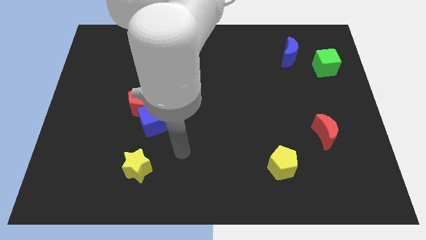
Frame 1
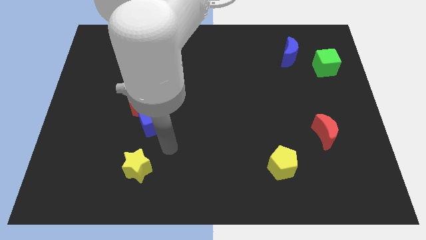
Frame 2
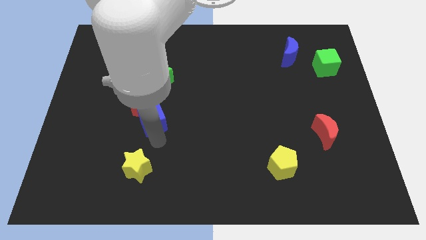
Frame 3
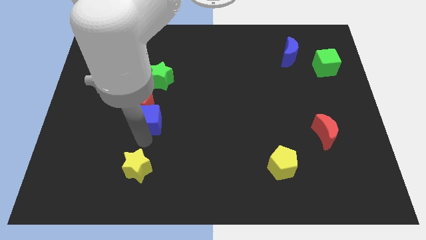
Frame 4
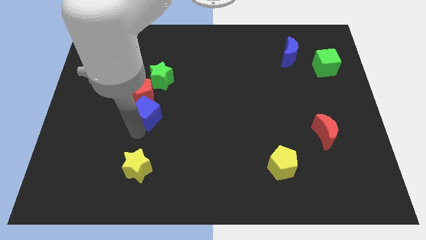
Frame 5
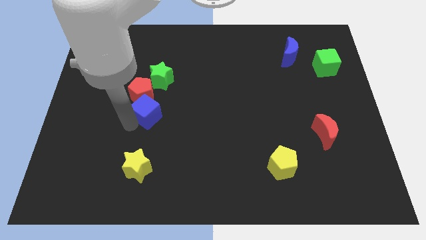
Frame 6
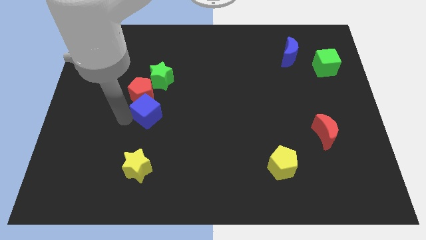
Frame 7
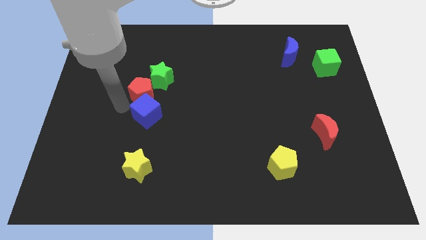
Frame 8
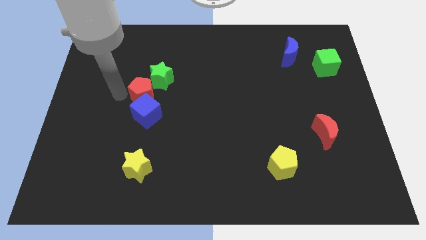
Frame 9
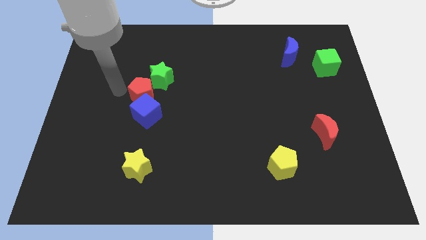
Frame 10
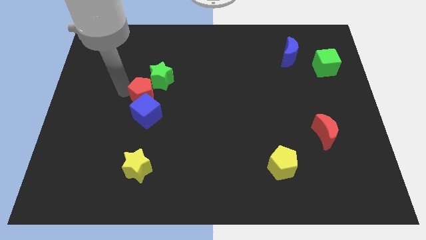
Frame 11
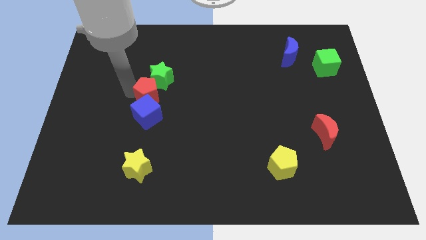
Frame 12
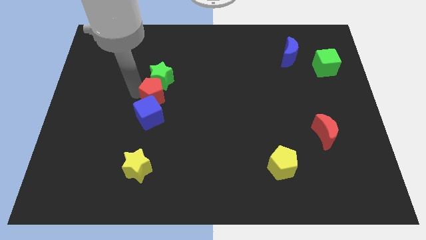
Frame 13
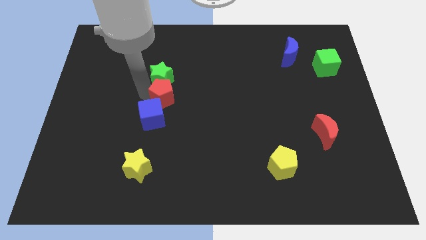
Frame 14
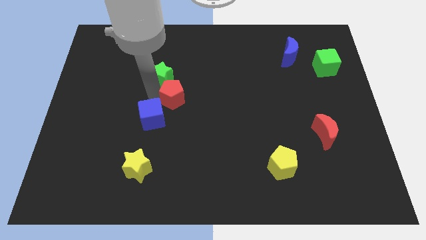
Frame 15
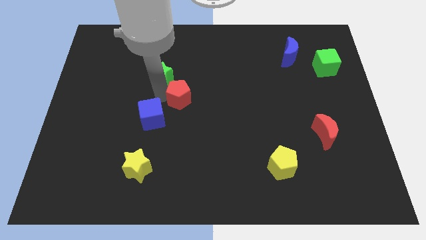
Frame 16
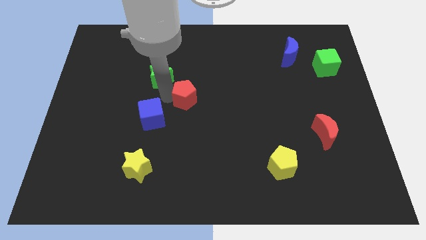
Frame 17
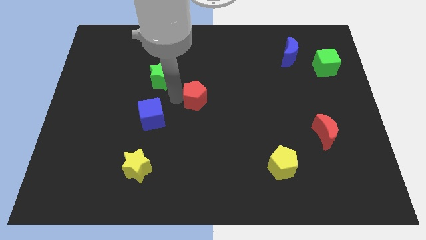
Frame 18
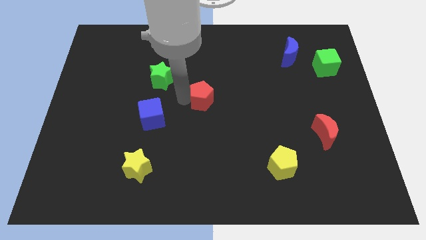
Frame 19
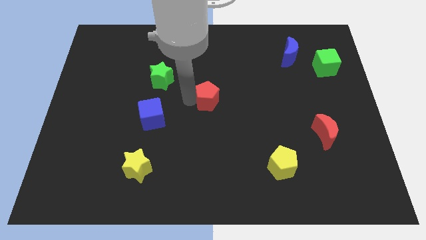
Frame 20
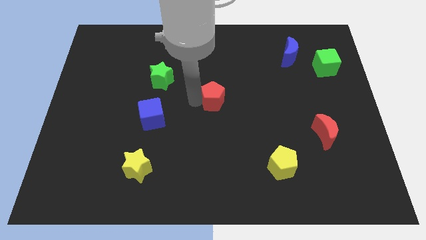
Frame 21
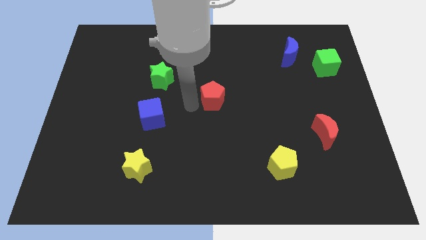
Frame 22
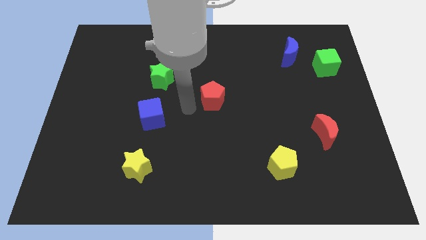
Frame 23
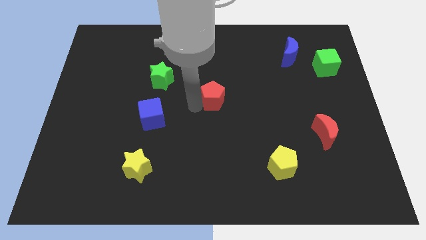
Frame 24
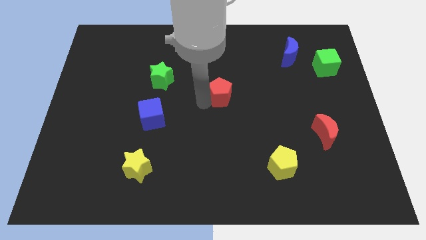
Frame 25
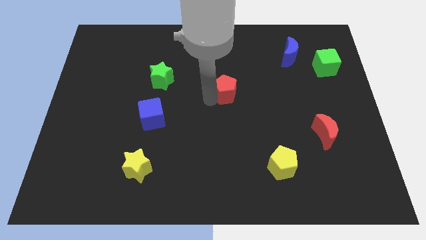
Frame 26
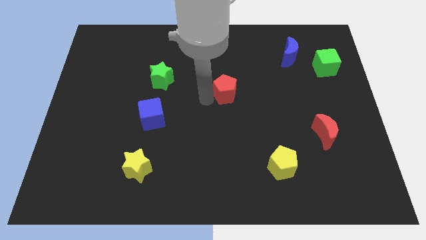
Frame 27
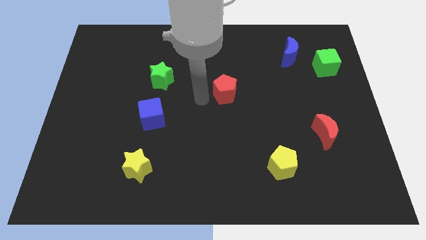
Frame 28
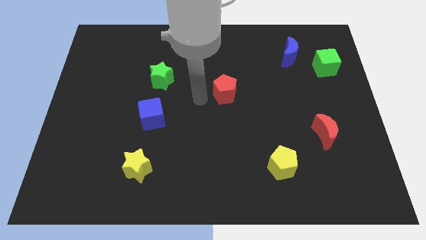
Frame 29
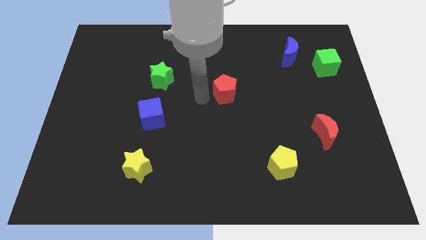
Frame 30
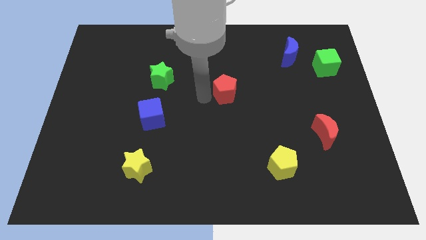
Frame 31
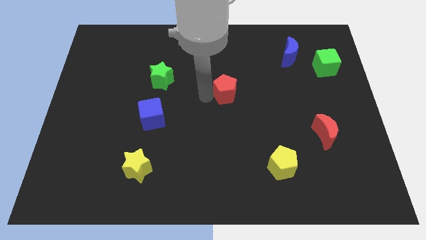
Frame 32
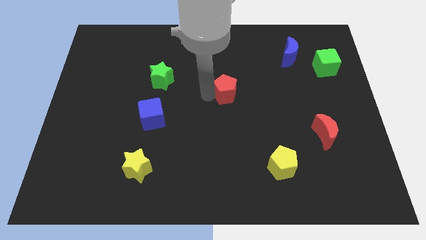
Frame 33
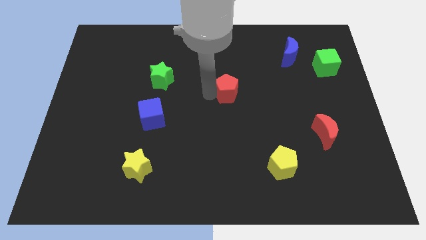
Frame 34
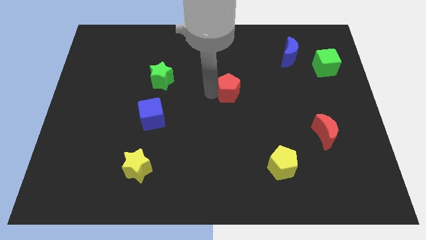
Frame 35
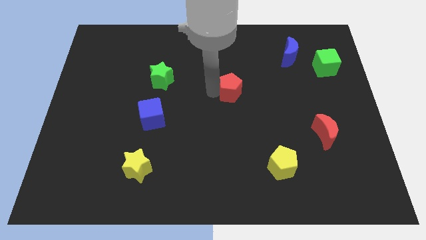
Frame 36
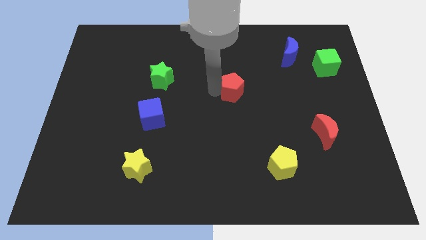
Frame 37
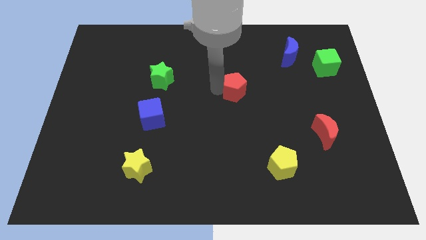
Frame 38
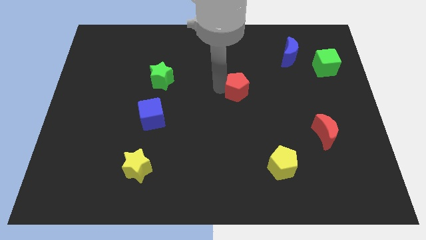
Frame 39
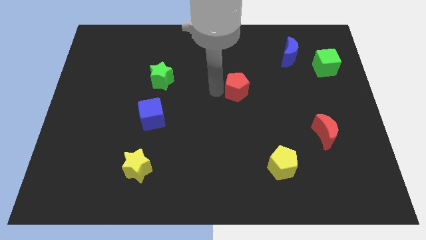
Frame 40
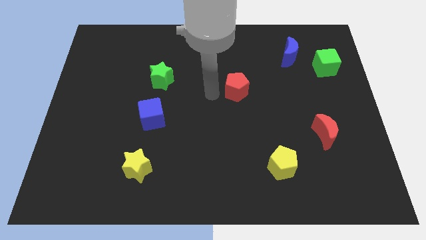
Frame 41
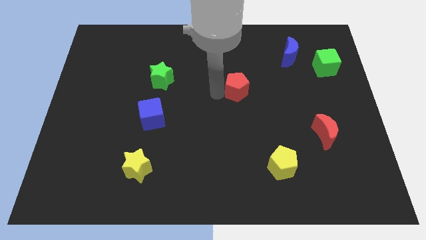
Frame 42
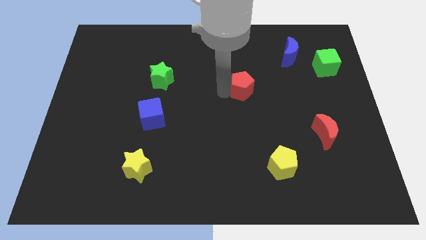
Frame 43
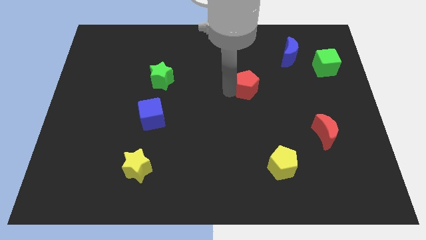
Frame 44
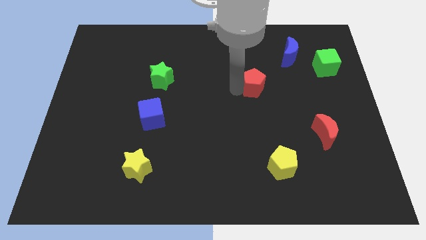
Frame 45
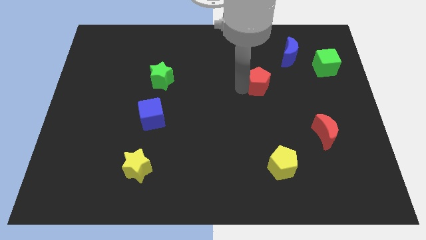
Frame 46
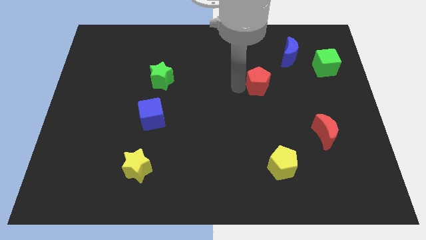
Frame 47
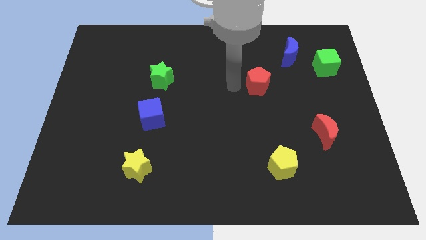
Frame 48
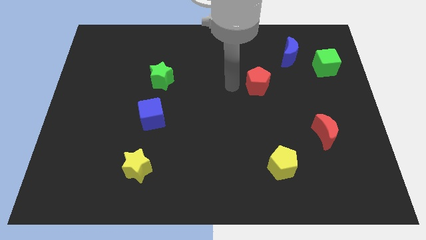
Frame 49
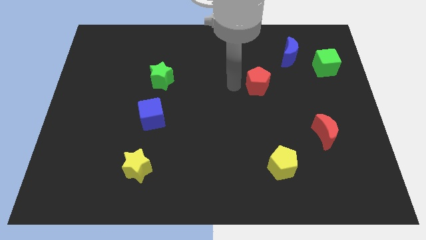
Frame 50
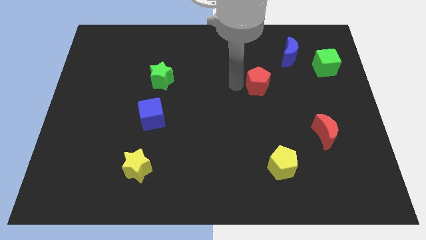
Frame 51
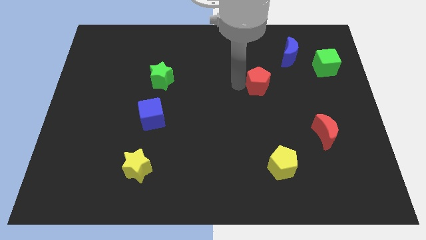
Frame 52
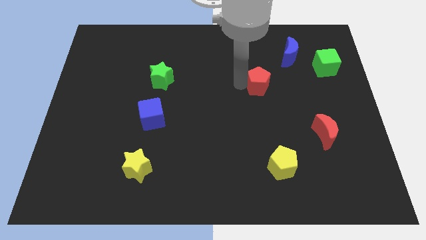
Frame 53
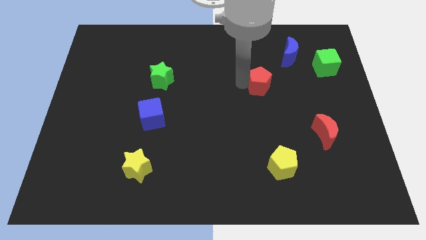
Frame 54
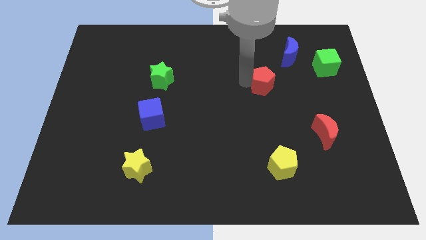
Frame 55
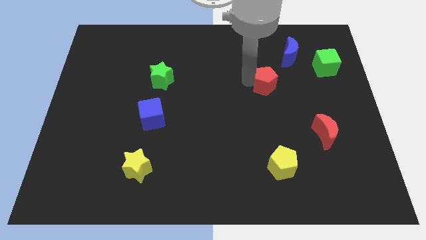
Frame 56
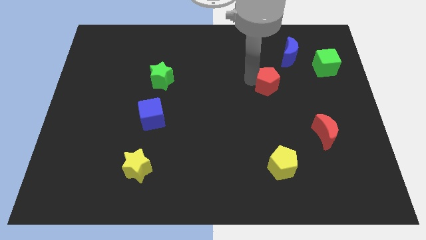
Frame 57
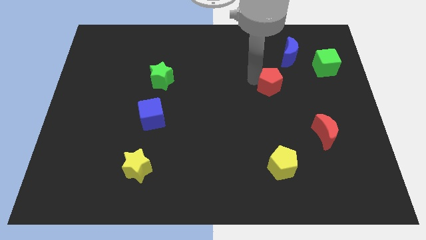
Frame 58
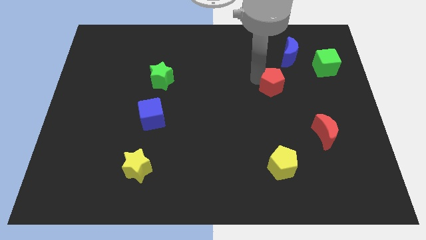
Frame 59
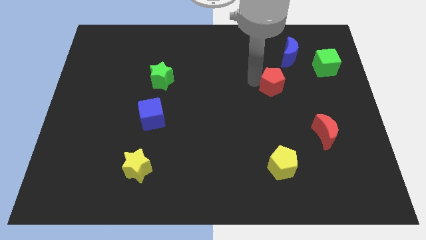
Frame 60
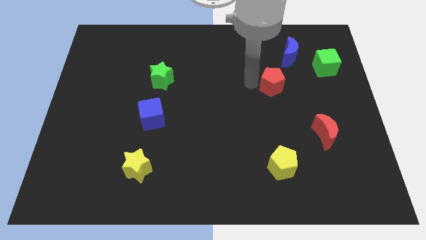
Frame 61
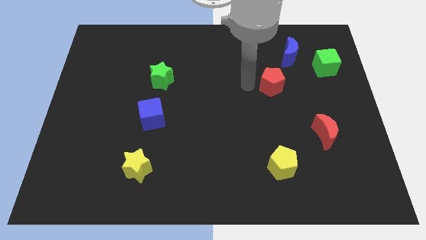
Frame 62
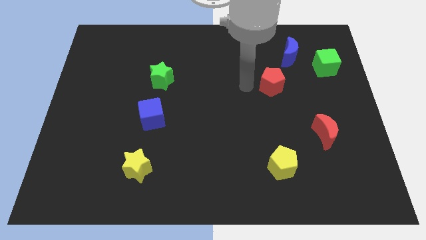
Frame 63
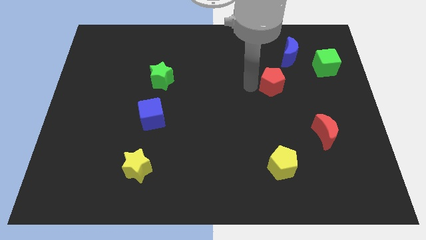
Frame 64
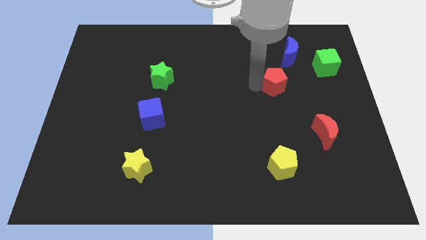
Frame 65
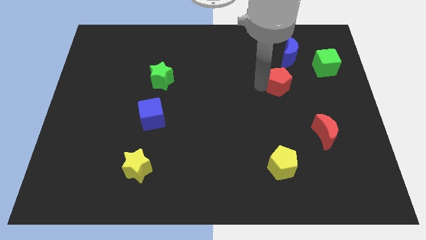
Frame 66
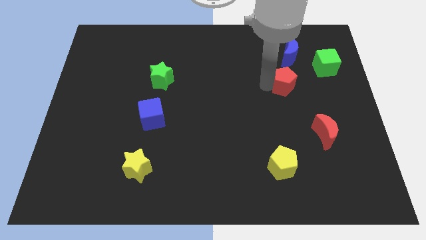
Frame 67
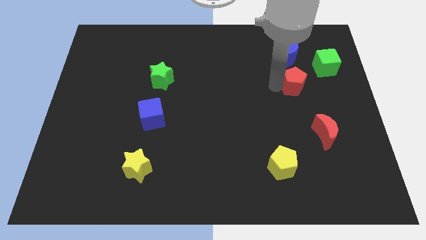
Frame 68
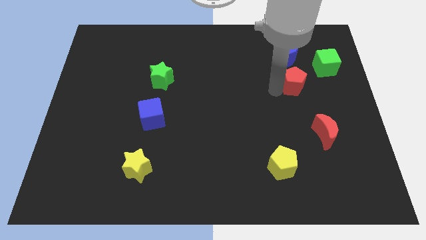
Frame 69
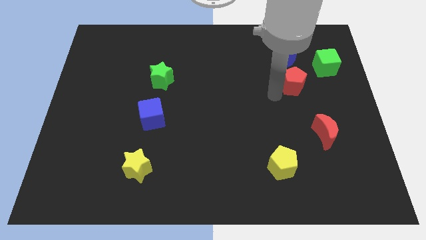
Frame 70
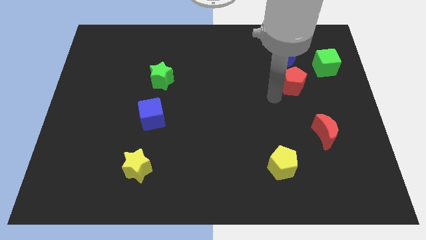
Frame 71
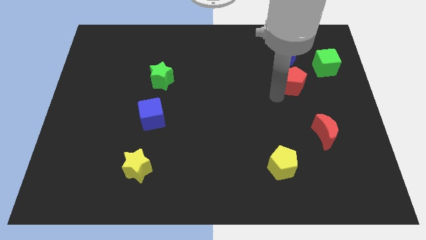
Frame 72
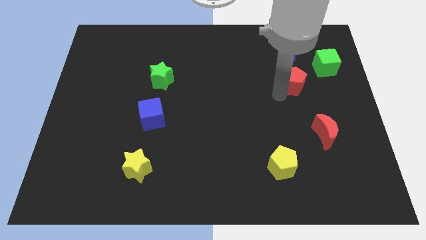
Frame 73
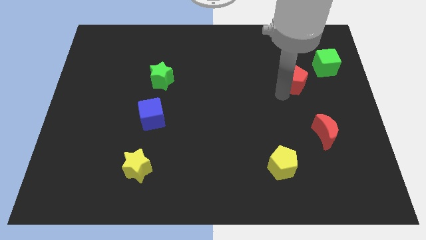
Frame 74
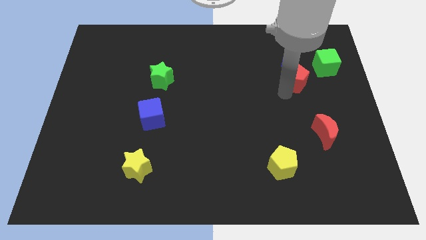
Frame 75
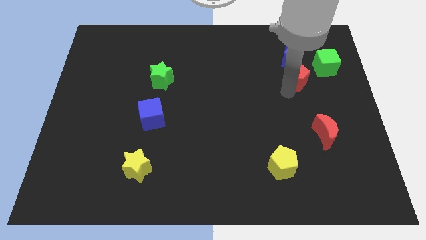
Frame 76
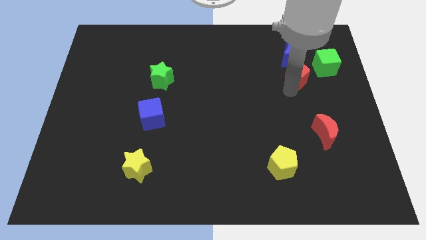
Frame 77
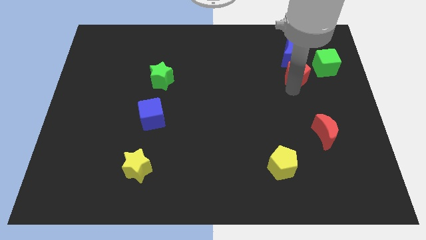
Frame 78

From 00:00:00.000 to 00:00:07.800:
put the red pentagon to the bottom right of the blue moon
